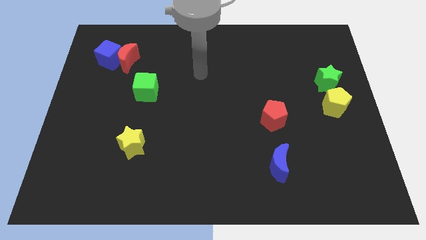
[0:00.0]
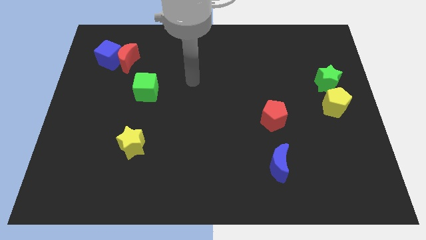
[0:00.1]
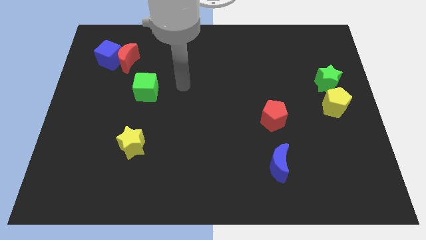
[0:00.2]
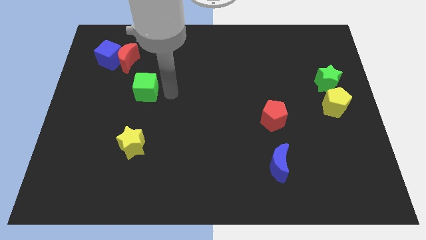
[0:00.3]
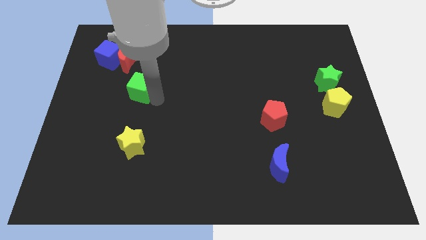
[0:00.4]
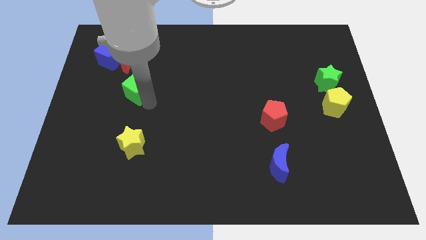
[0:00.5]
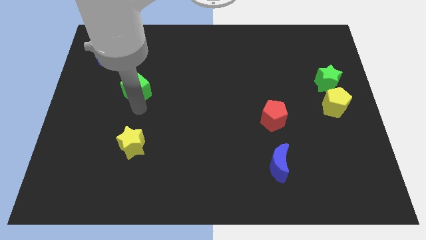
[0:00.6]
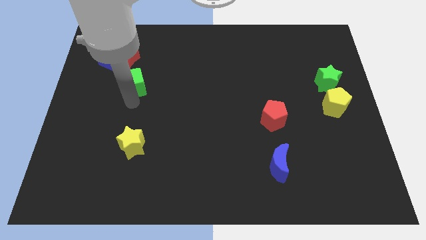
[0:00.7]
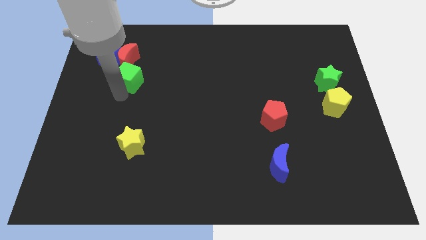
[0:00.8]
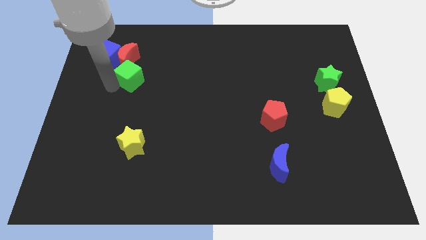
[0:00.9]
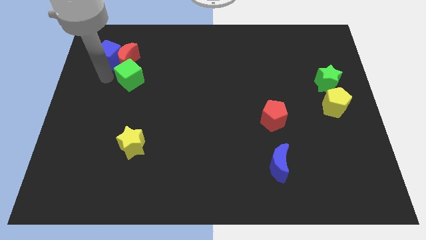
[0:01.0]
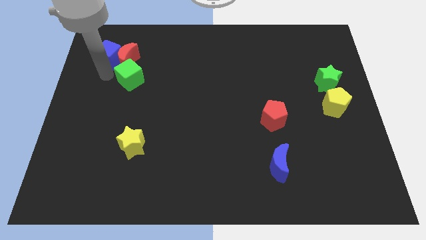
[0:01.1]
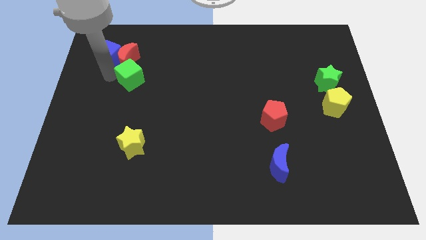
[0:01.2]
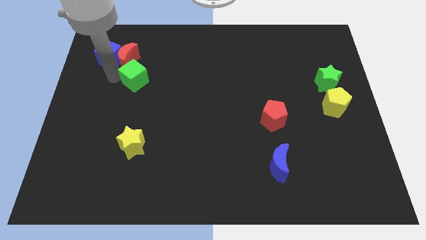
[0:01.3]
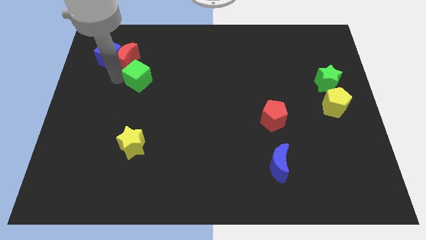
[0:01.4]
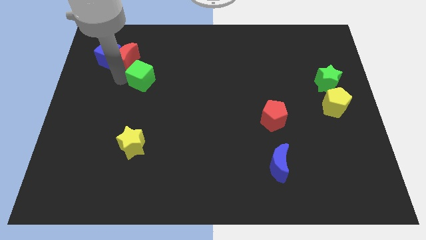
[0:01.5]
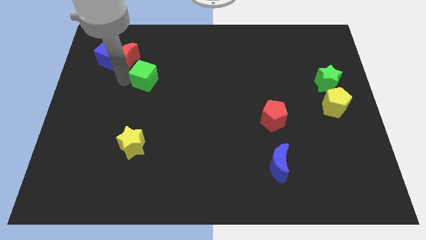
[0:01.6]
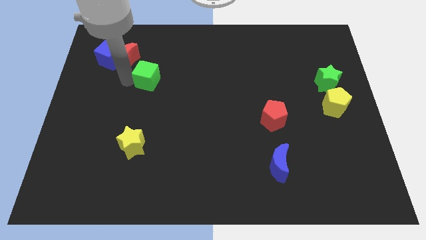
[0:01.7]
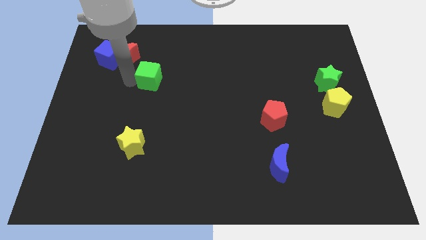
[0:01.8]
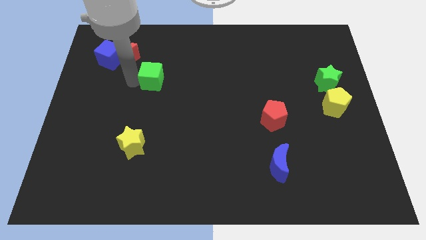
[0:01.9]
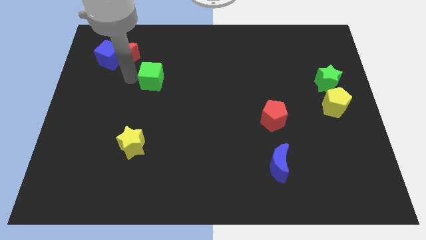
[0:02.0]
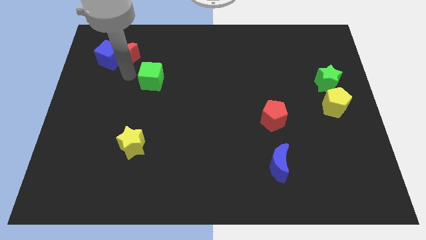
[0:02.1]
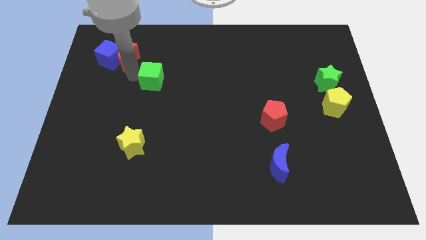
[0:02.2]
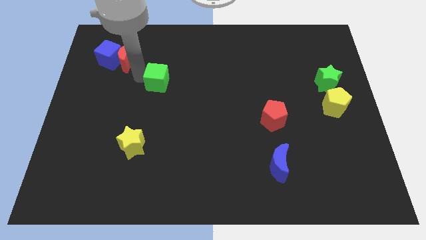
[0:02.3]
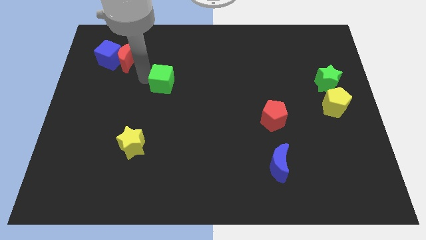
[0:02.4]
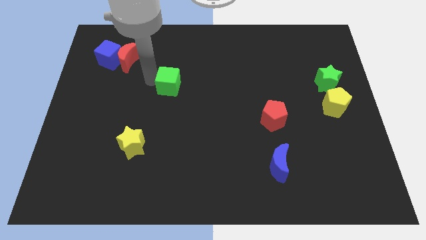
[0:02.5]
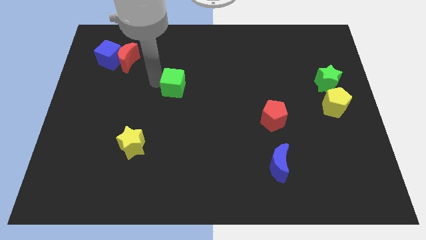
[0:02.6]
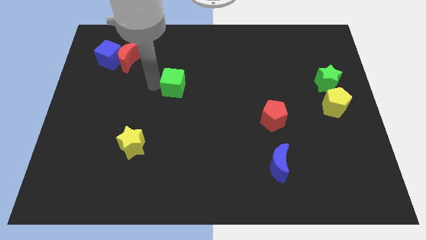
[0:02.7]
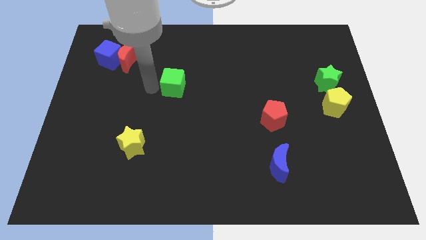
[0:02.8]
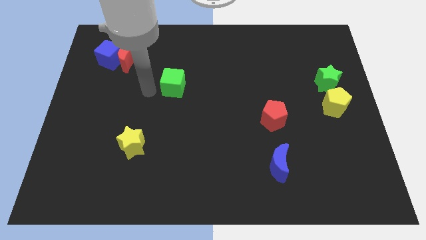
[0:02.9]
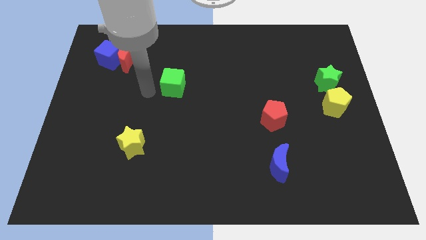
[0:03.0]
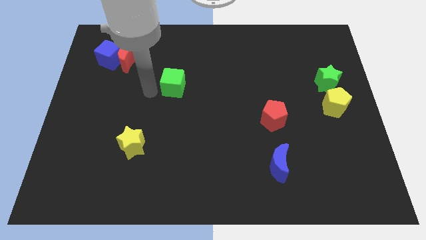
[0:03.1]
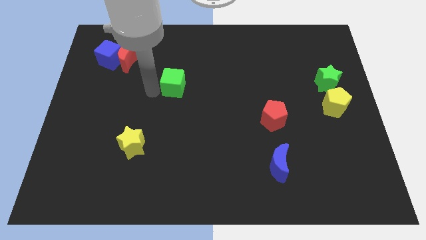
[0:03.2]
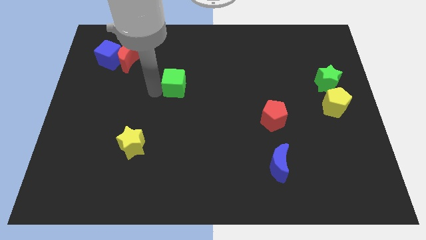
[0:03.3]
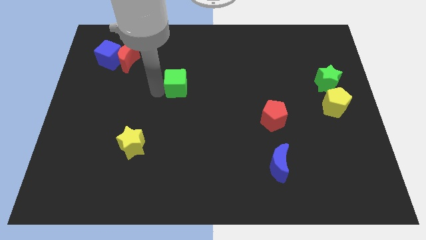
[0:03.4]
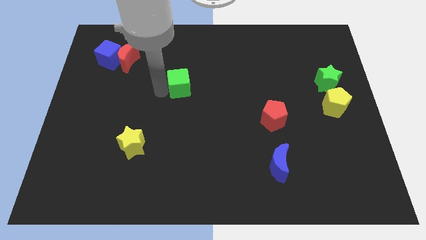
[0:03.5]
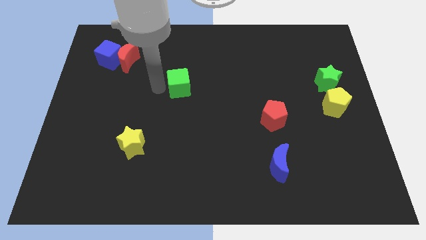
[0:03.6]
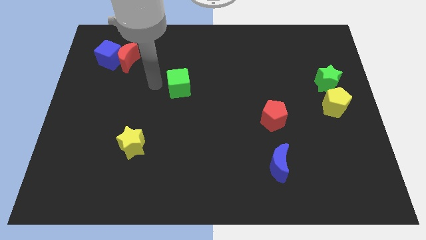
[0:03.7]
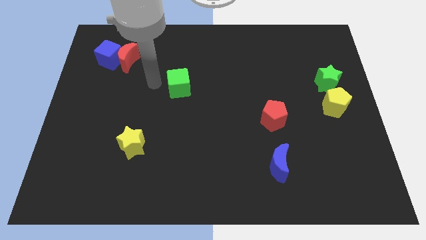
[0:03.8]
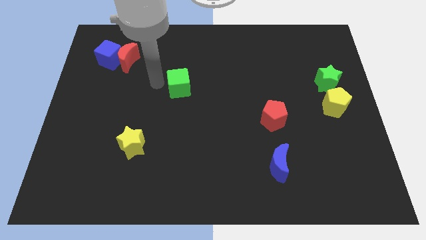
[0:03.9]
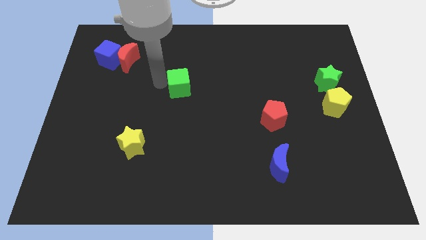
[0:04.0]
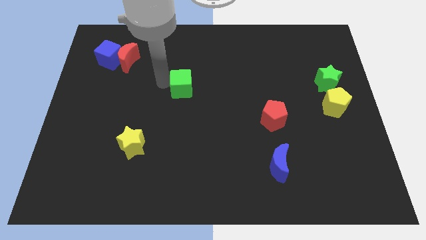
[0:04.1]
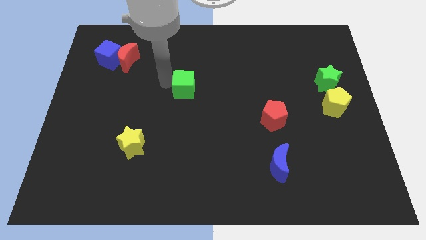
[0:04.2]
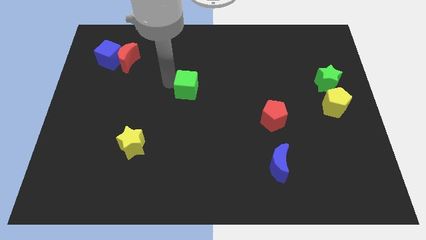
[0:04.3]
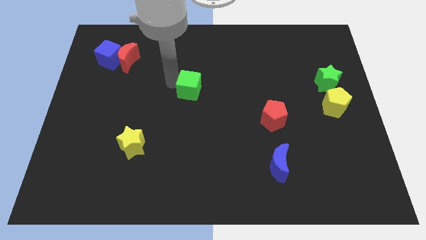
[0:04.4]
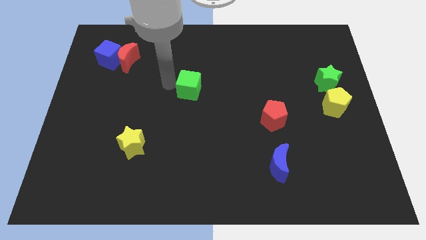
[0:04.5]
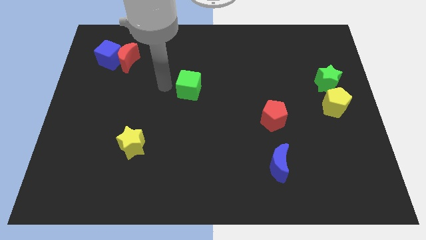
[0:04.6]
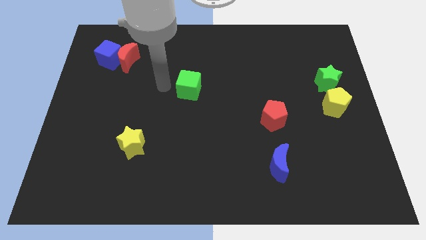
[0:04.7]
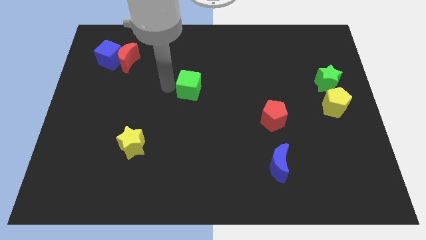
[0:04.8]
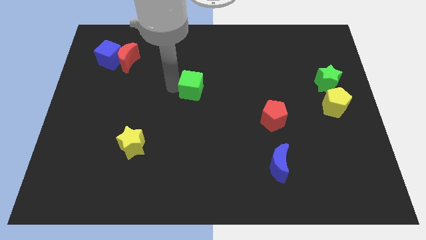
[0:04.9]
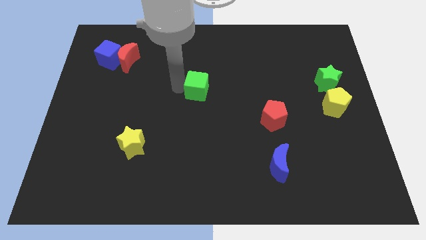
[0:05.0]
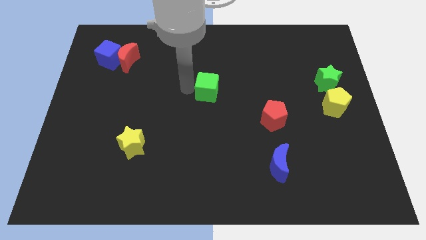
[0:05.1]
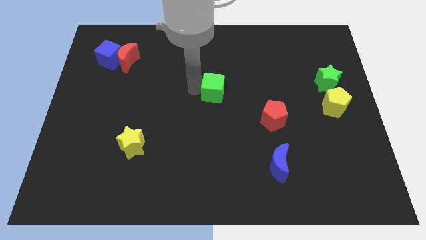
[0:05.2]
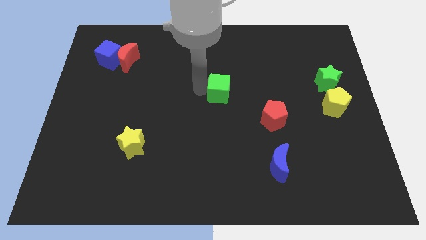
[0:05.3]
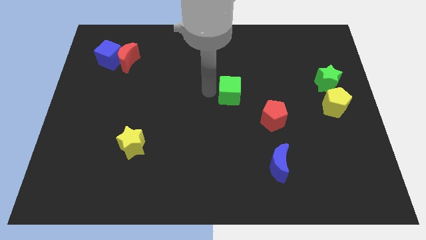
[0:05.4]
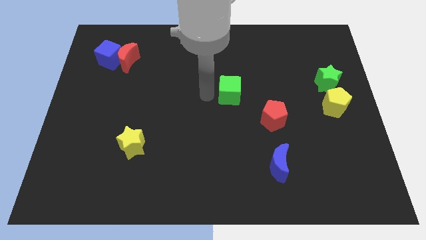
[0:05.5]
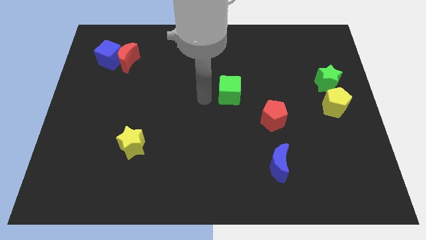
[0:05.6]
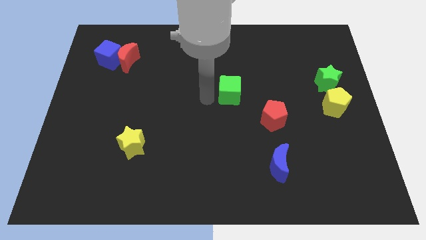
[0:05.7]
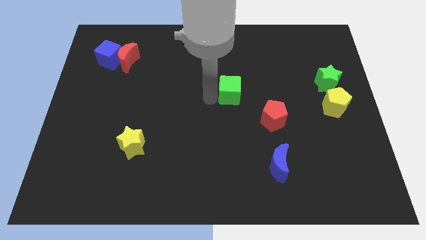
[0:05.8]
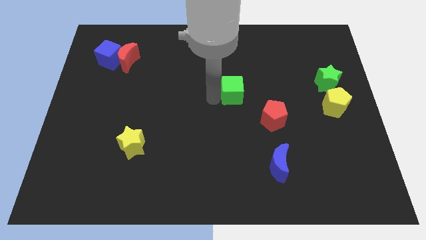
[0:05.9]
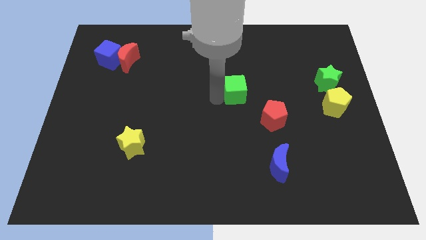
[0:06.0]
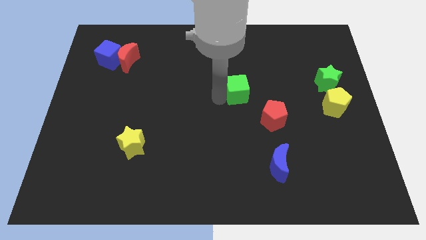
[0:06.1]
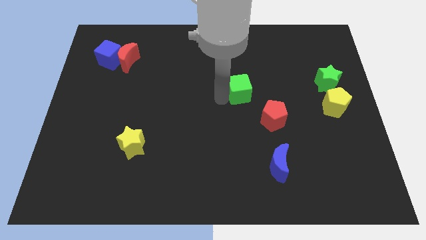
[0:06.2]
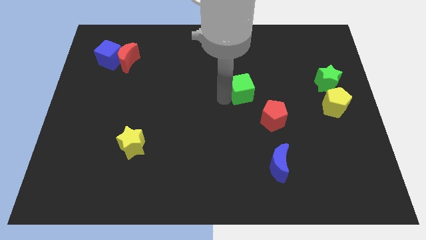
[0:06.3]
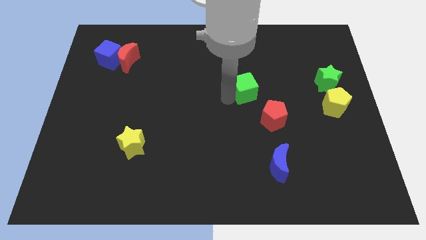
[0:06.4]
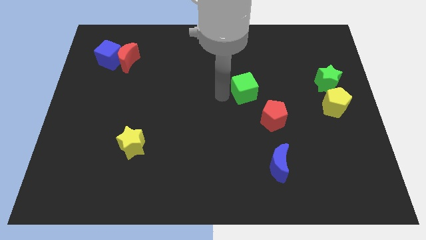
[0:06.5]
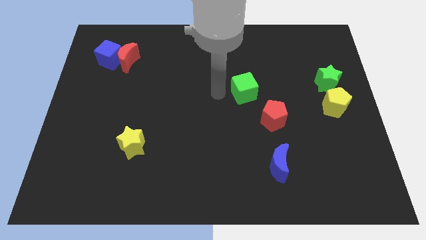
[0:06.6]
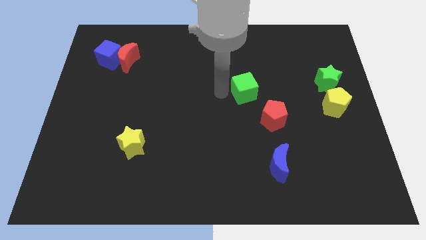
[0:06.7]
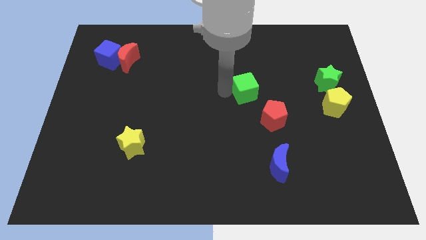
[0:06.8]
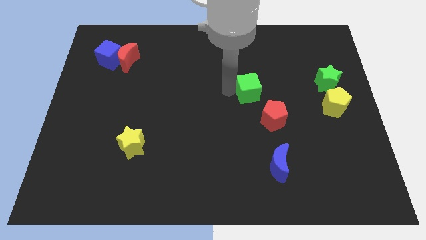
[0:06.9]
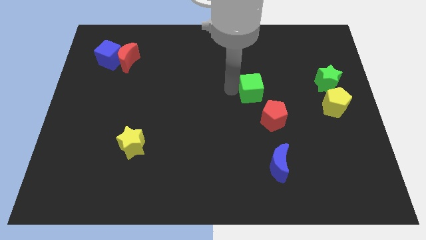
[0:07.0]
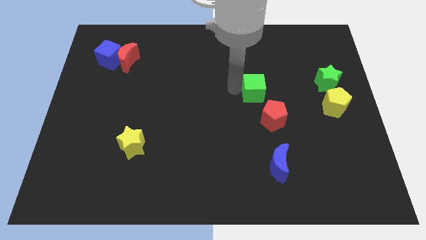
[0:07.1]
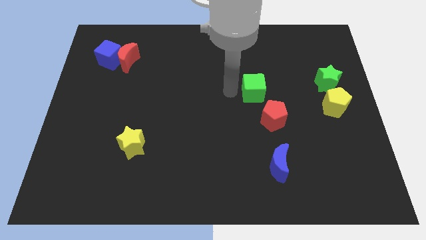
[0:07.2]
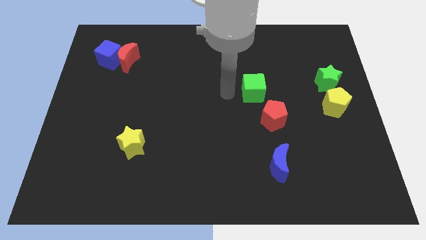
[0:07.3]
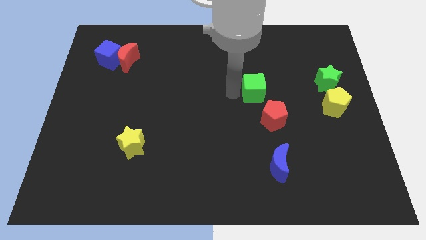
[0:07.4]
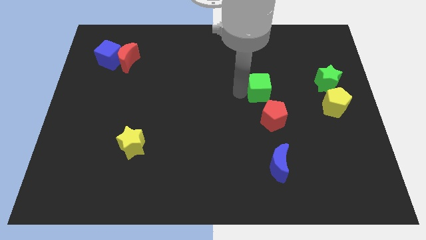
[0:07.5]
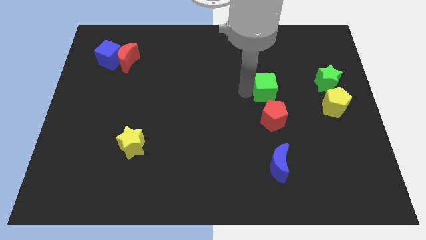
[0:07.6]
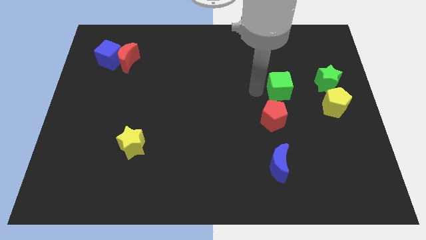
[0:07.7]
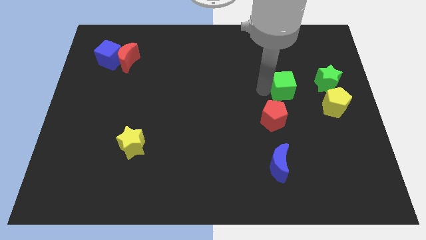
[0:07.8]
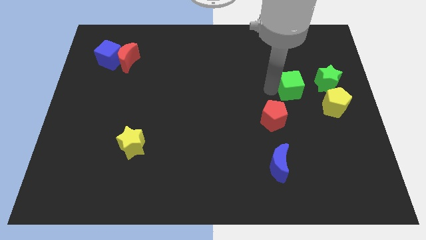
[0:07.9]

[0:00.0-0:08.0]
move the green cube to the top left side of the yellow pentagon
